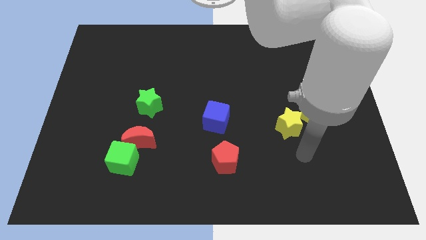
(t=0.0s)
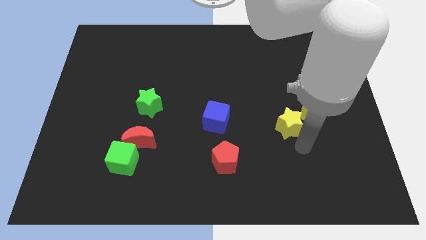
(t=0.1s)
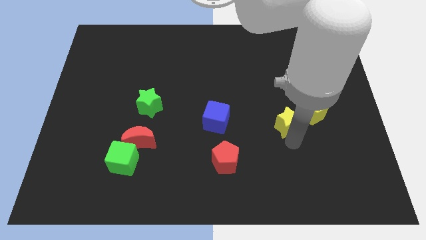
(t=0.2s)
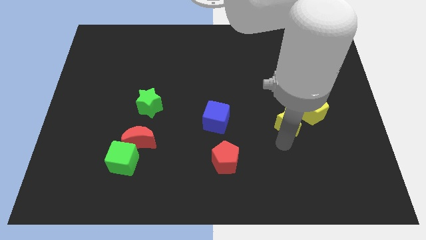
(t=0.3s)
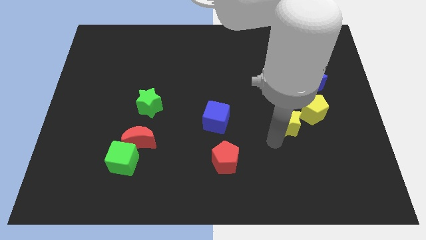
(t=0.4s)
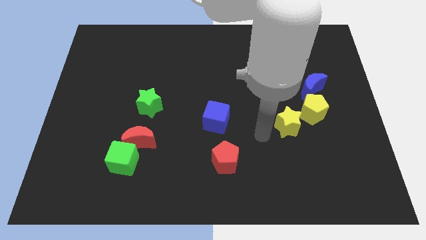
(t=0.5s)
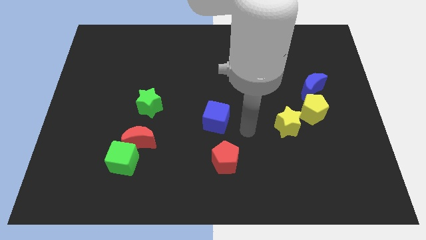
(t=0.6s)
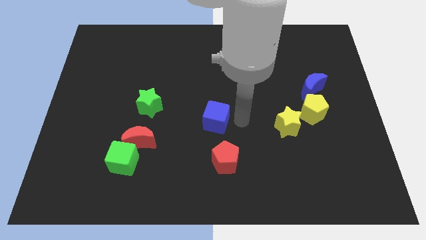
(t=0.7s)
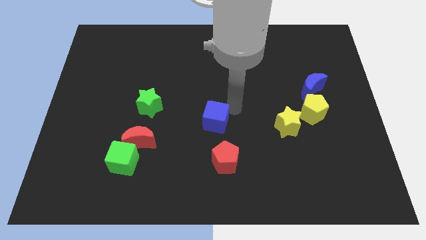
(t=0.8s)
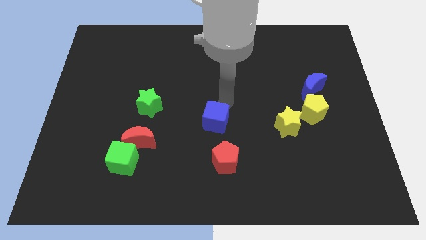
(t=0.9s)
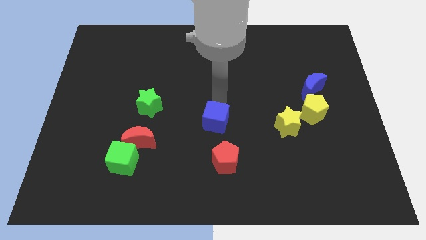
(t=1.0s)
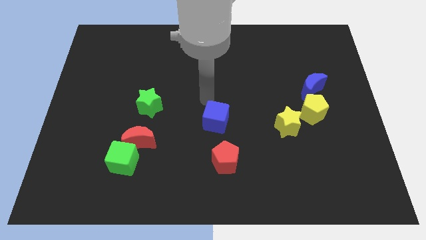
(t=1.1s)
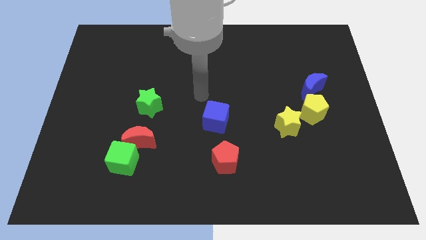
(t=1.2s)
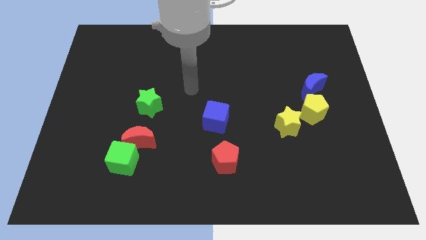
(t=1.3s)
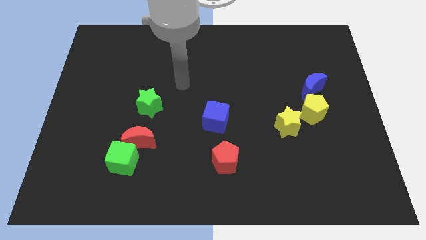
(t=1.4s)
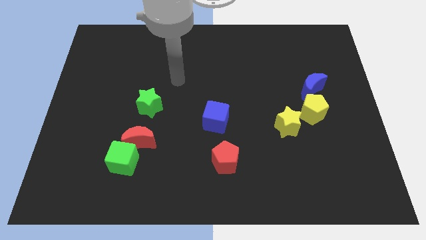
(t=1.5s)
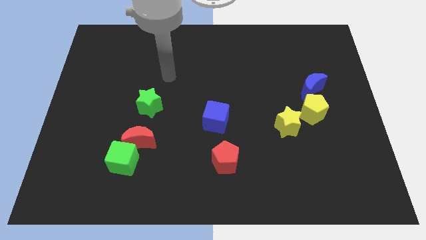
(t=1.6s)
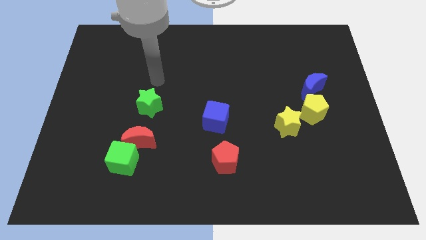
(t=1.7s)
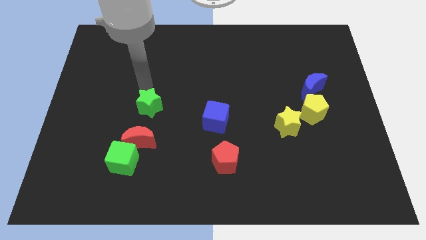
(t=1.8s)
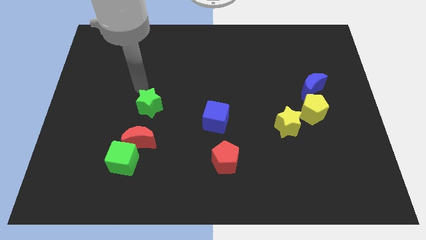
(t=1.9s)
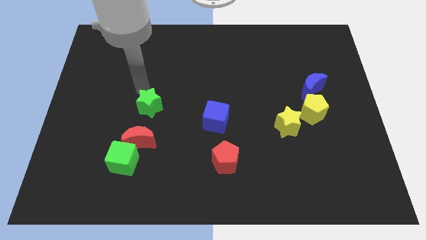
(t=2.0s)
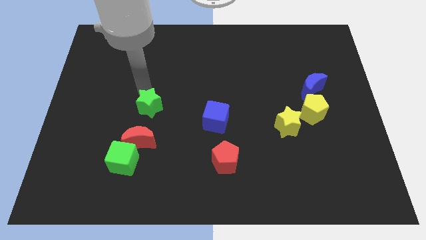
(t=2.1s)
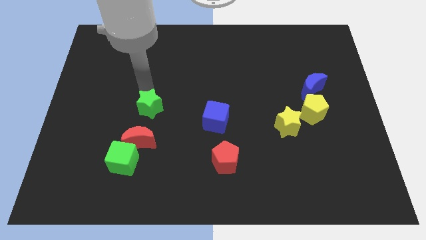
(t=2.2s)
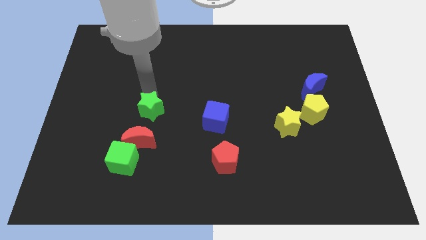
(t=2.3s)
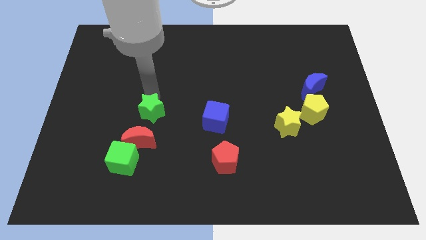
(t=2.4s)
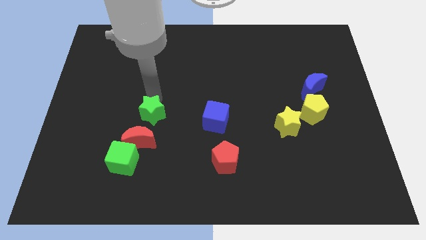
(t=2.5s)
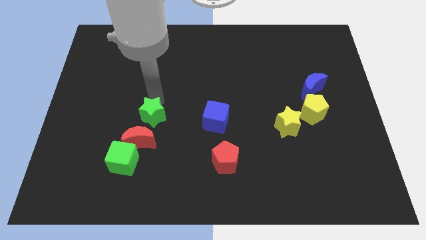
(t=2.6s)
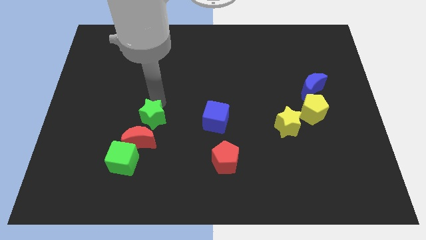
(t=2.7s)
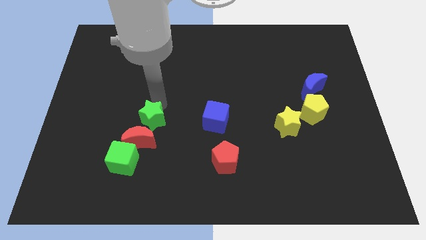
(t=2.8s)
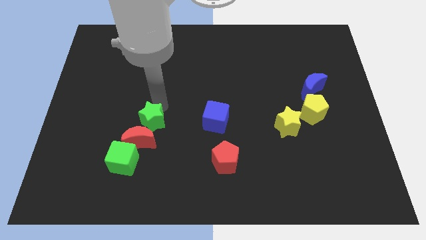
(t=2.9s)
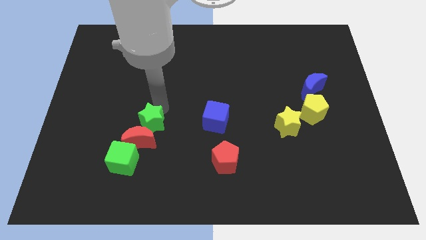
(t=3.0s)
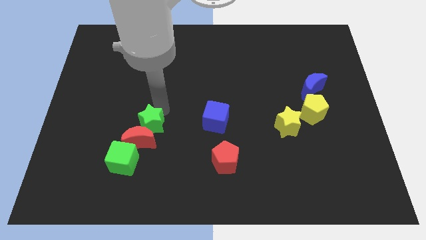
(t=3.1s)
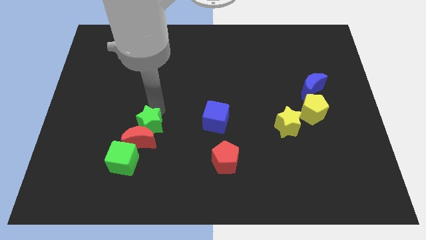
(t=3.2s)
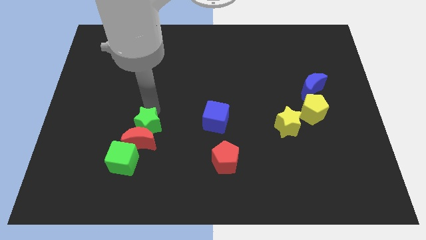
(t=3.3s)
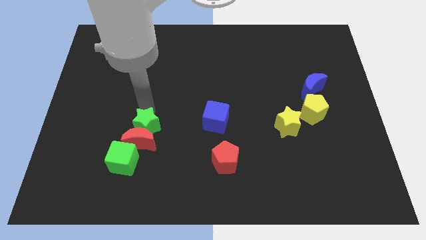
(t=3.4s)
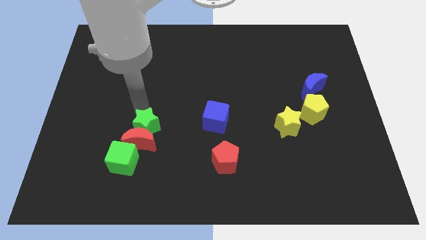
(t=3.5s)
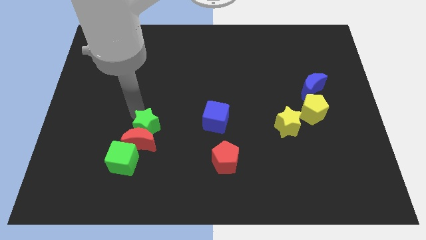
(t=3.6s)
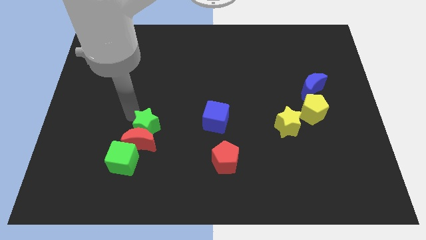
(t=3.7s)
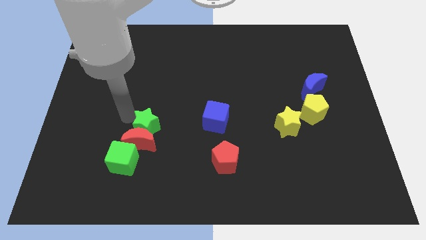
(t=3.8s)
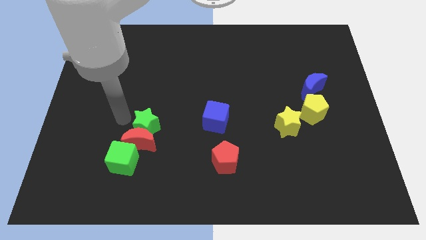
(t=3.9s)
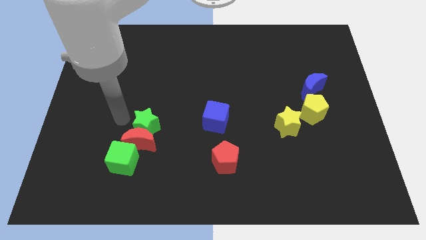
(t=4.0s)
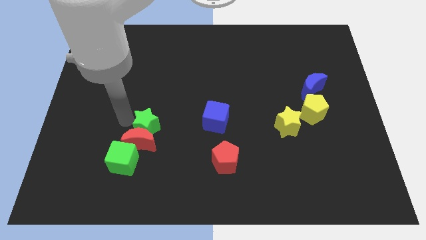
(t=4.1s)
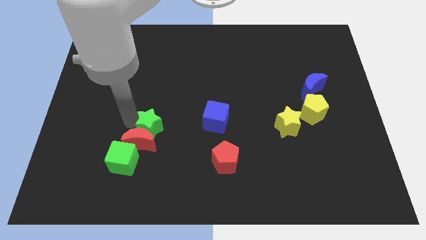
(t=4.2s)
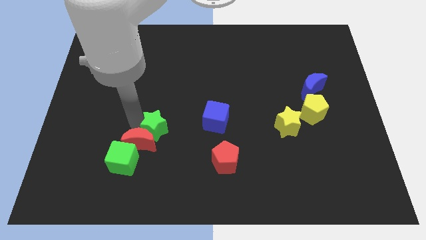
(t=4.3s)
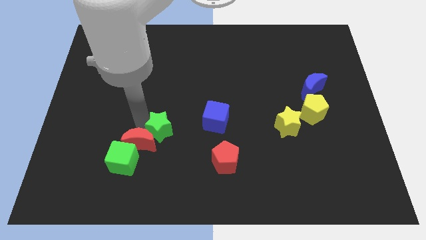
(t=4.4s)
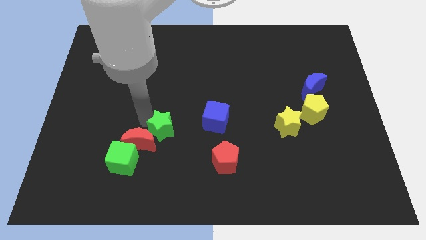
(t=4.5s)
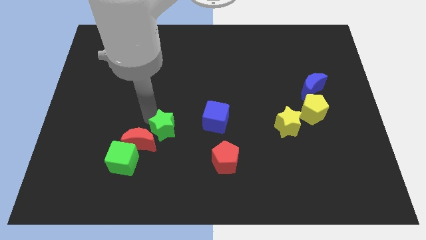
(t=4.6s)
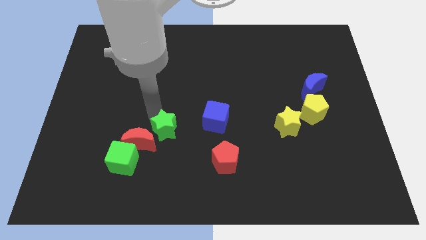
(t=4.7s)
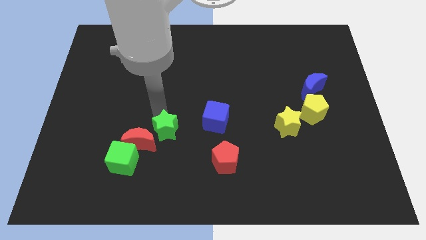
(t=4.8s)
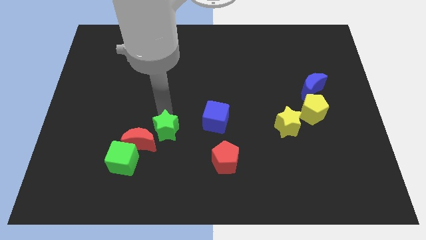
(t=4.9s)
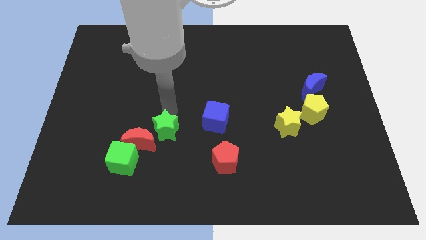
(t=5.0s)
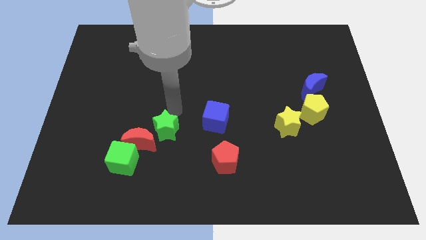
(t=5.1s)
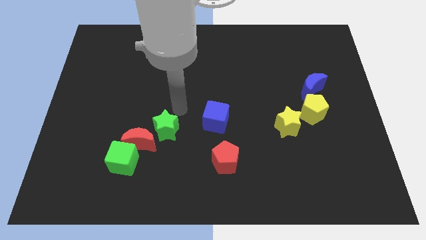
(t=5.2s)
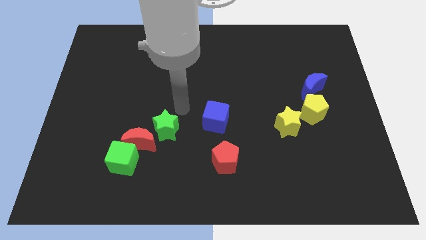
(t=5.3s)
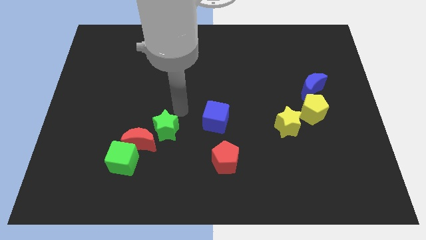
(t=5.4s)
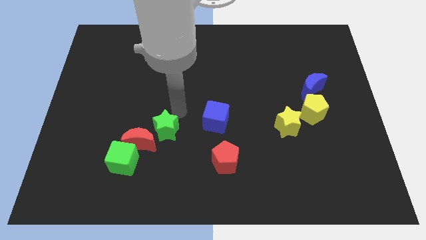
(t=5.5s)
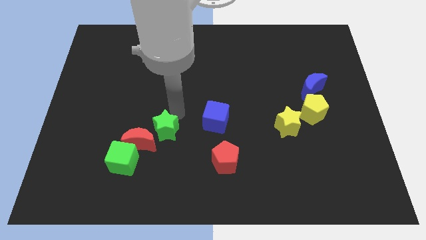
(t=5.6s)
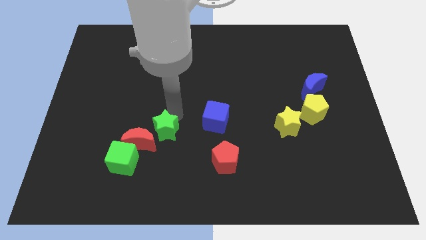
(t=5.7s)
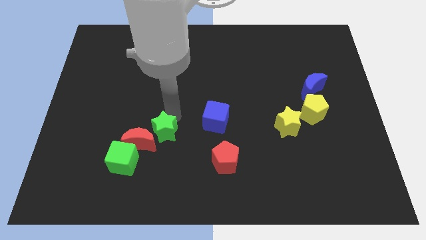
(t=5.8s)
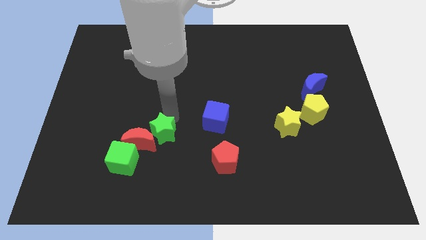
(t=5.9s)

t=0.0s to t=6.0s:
slide the green star a bit downwards

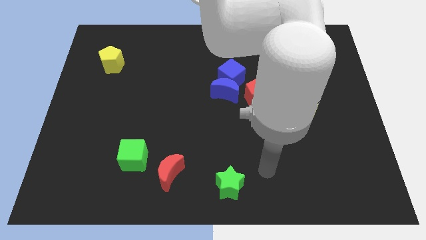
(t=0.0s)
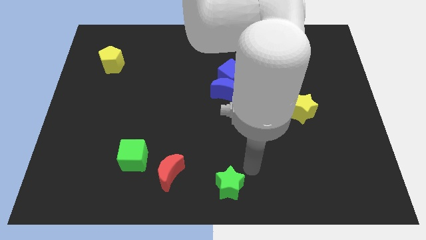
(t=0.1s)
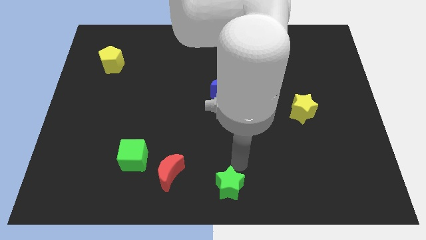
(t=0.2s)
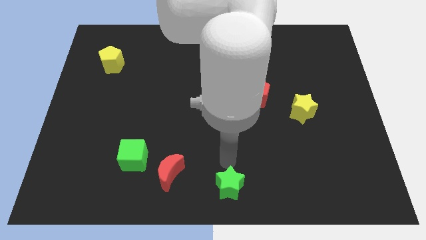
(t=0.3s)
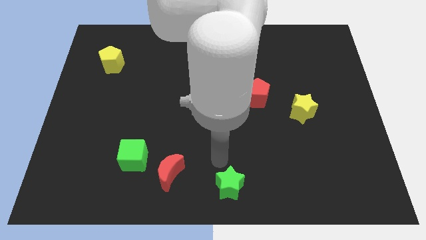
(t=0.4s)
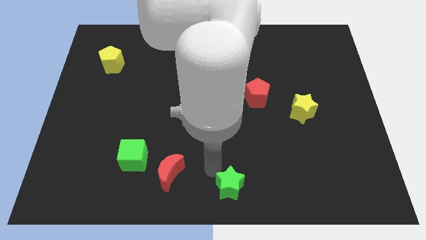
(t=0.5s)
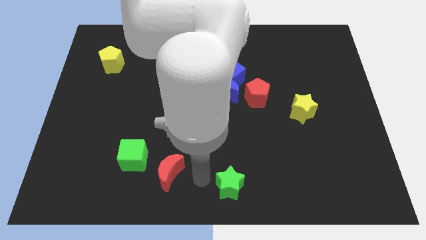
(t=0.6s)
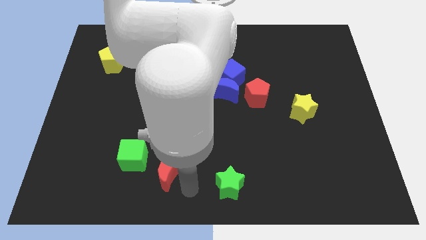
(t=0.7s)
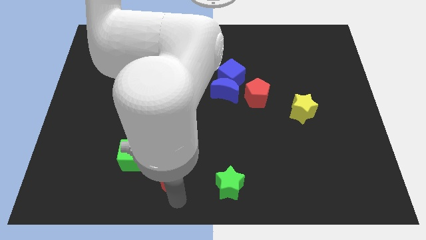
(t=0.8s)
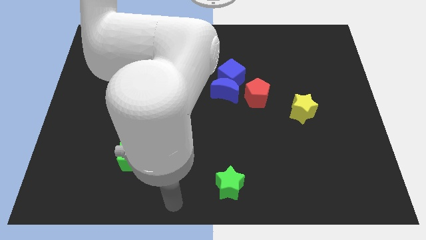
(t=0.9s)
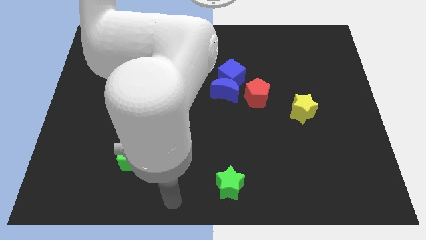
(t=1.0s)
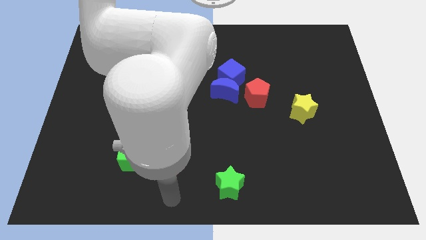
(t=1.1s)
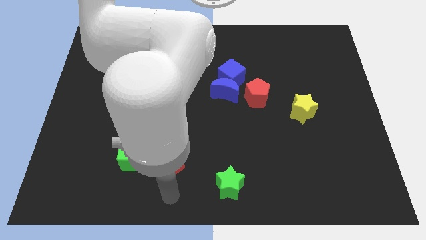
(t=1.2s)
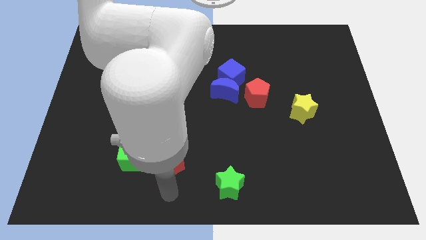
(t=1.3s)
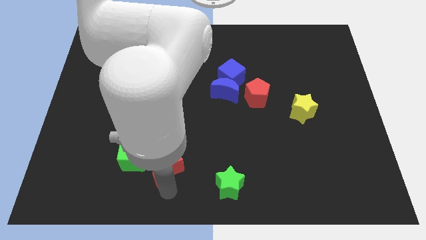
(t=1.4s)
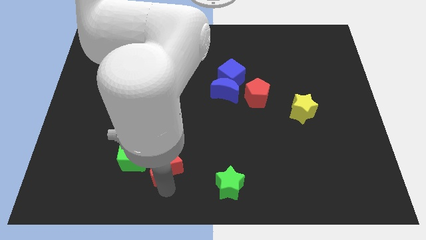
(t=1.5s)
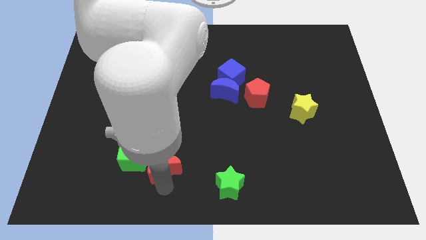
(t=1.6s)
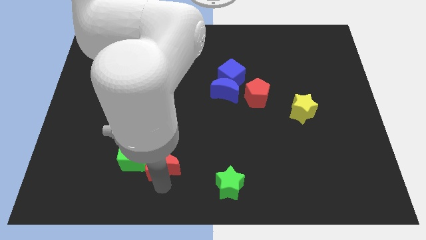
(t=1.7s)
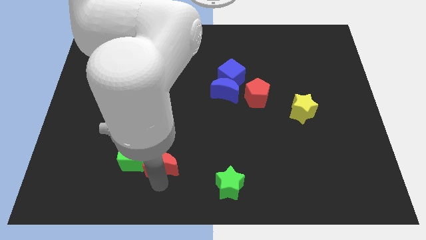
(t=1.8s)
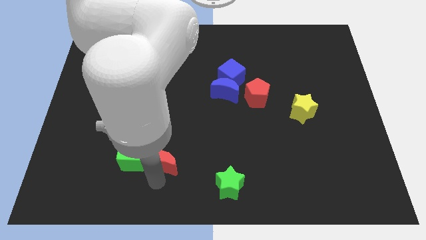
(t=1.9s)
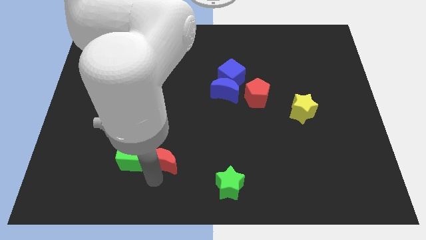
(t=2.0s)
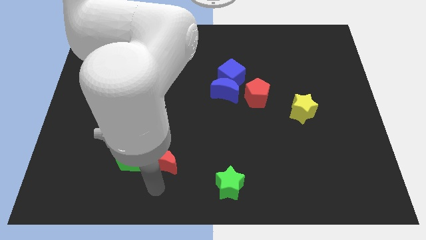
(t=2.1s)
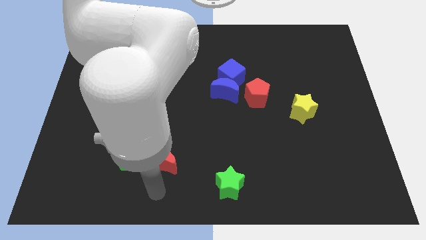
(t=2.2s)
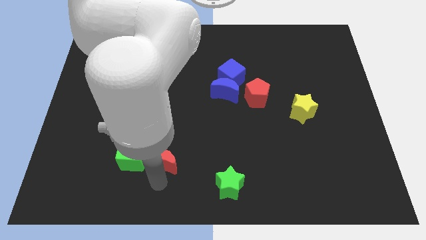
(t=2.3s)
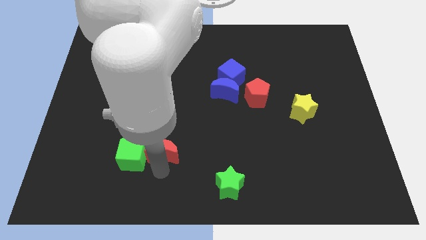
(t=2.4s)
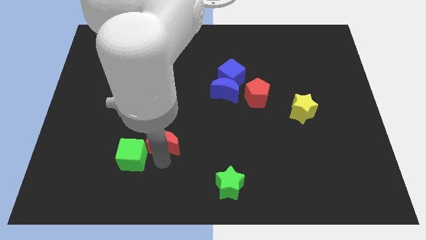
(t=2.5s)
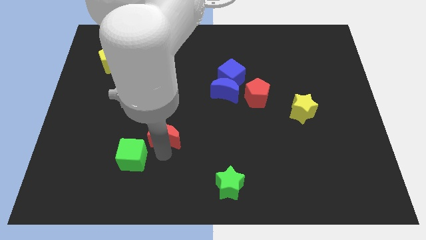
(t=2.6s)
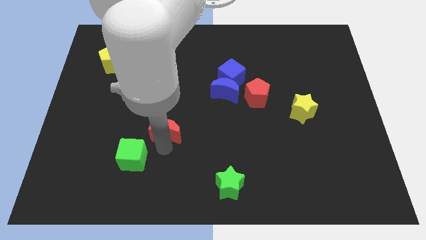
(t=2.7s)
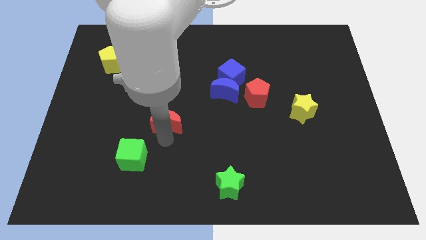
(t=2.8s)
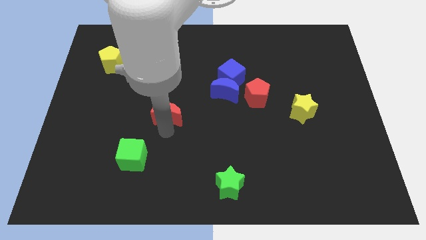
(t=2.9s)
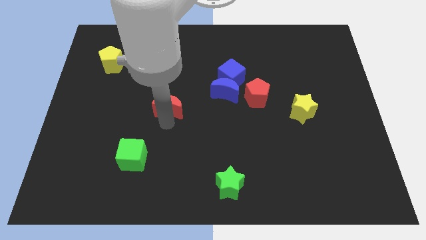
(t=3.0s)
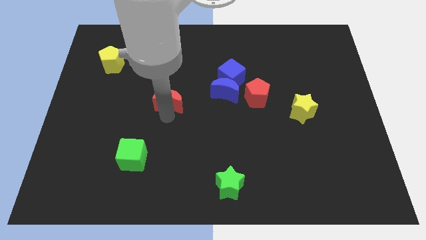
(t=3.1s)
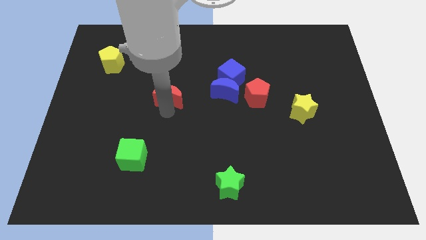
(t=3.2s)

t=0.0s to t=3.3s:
slide the red moon upwards
